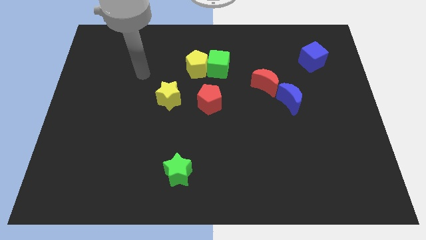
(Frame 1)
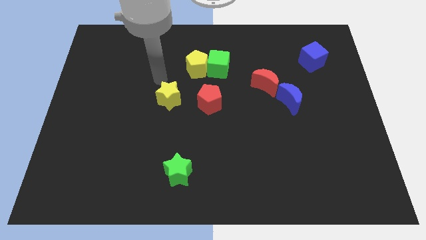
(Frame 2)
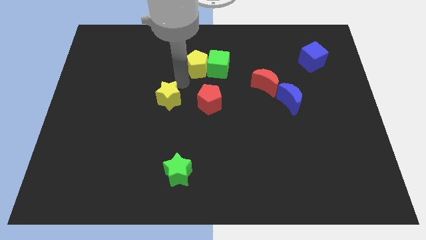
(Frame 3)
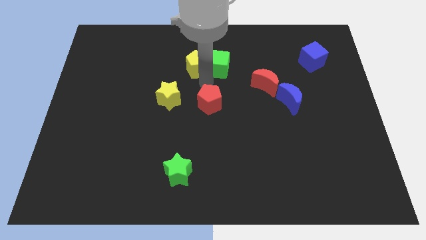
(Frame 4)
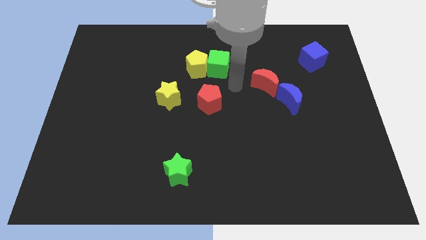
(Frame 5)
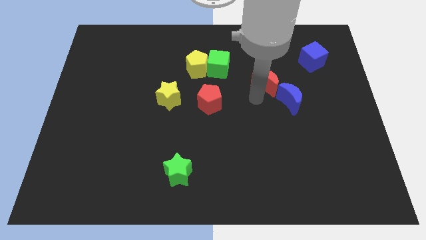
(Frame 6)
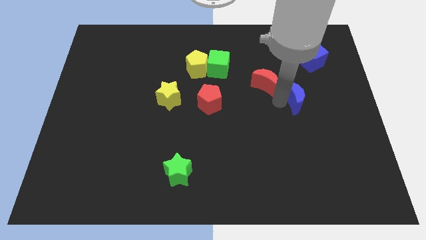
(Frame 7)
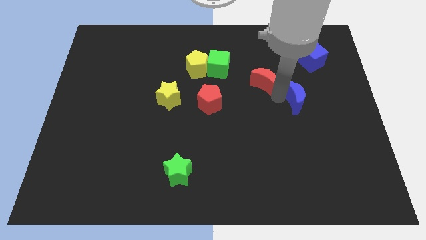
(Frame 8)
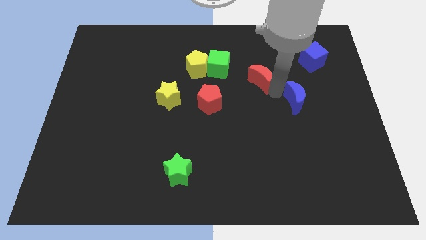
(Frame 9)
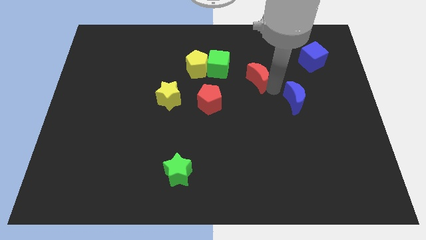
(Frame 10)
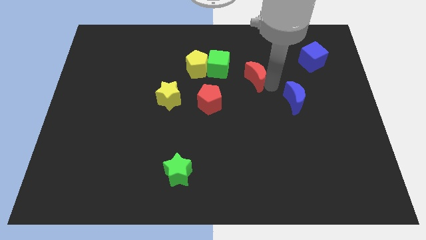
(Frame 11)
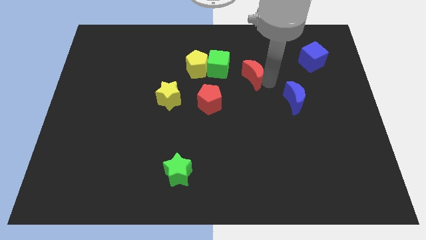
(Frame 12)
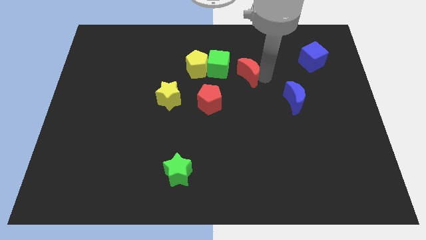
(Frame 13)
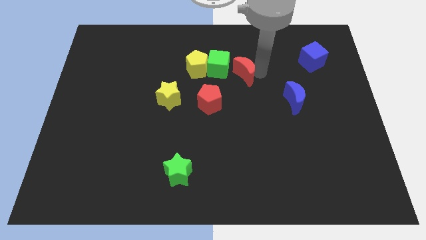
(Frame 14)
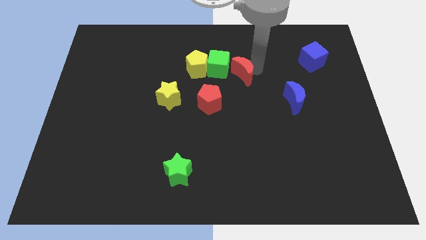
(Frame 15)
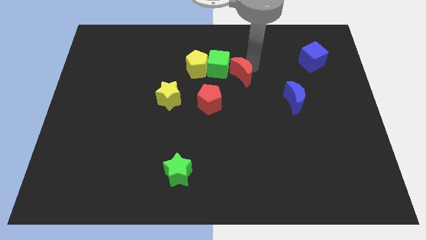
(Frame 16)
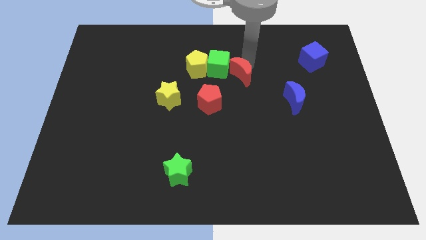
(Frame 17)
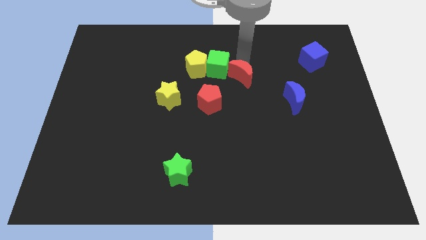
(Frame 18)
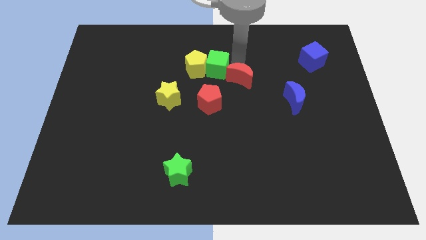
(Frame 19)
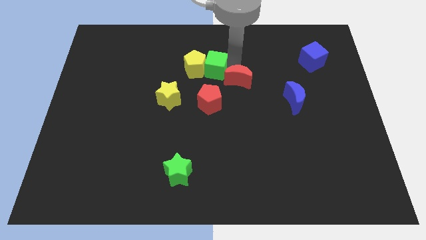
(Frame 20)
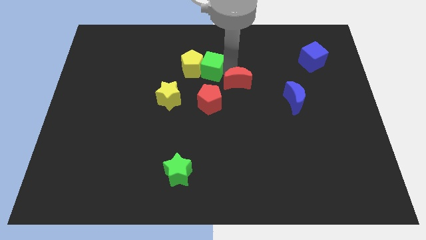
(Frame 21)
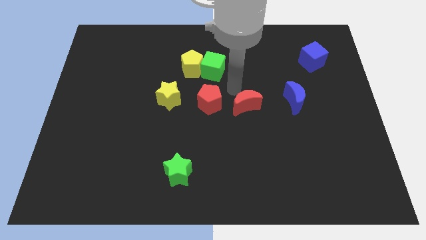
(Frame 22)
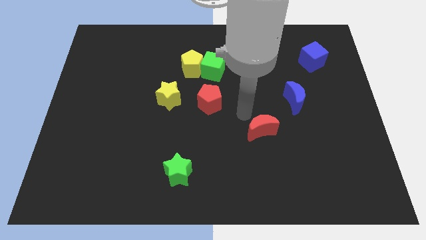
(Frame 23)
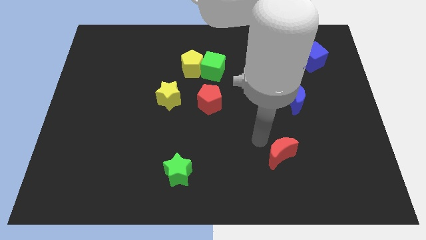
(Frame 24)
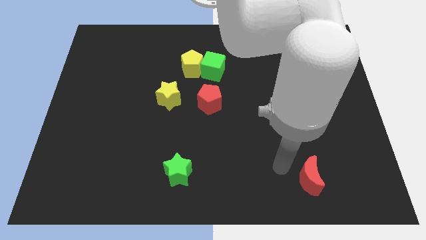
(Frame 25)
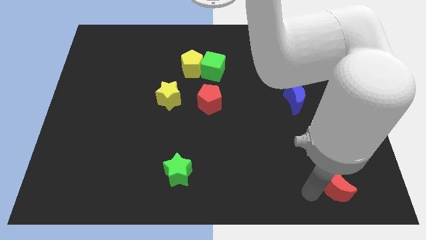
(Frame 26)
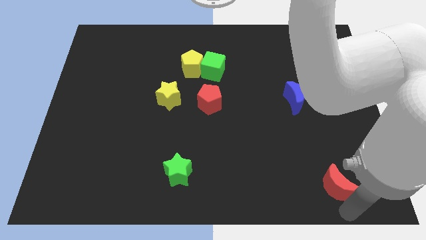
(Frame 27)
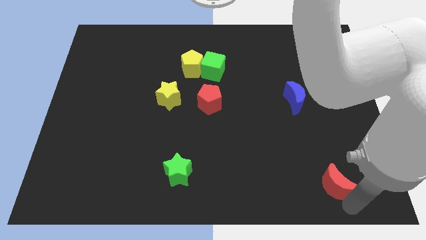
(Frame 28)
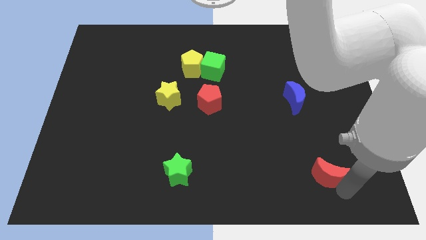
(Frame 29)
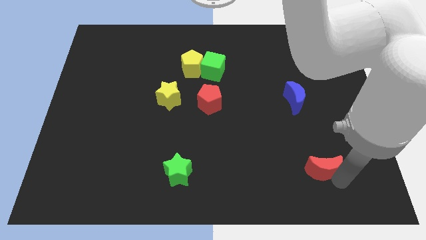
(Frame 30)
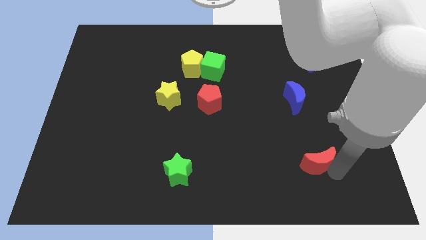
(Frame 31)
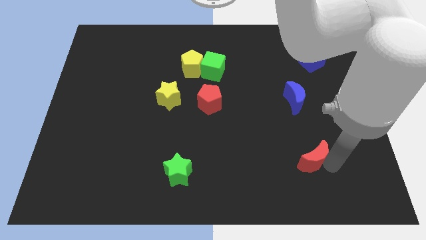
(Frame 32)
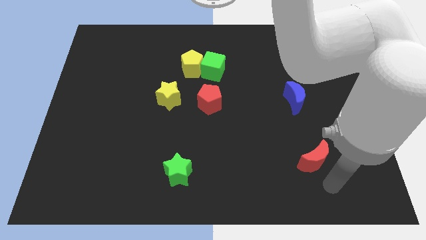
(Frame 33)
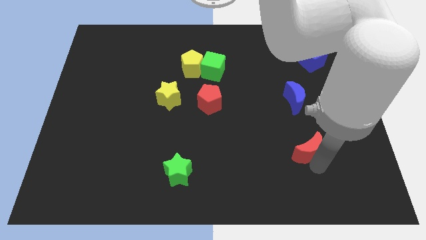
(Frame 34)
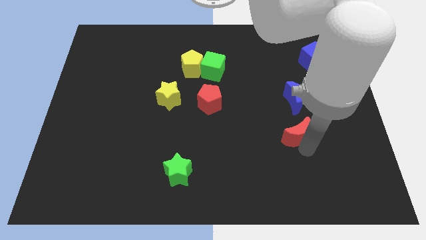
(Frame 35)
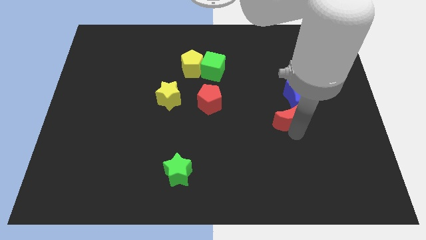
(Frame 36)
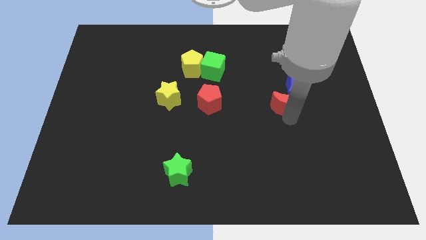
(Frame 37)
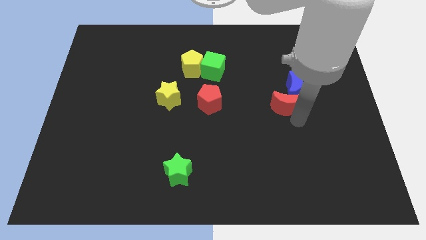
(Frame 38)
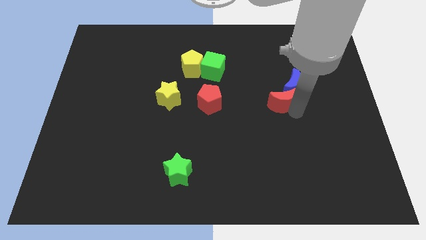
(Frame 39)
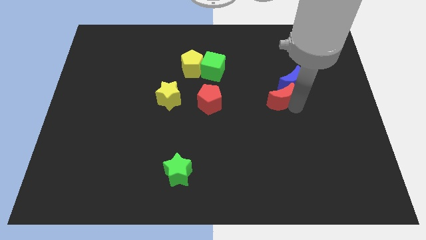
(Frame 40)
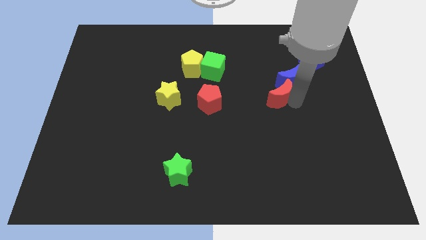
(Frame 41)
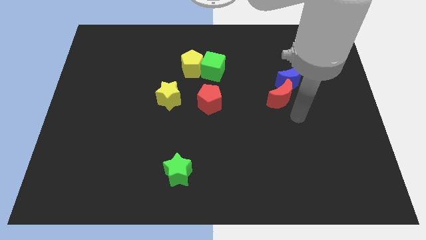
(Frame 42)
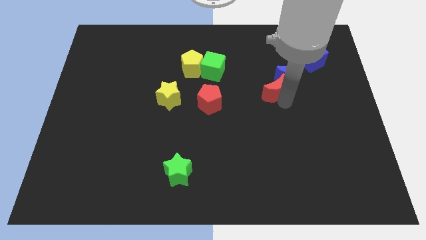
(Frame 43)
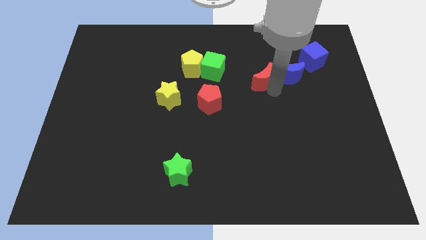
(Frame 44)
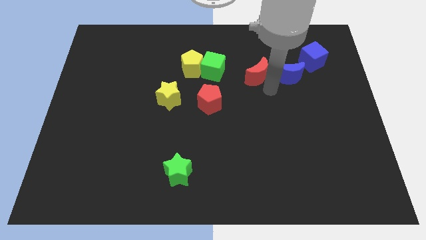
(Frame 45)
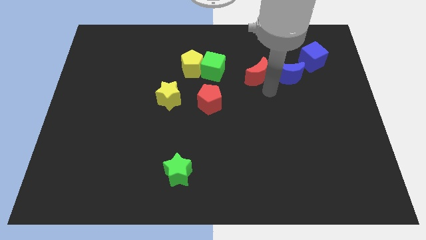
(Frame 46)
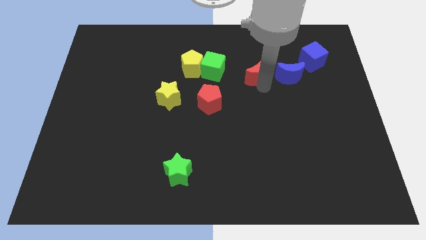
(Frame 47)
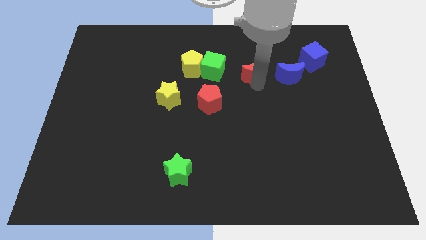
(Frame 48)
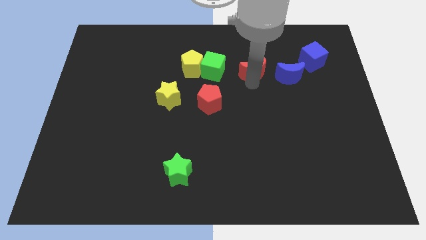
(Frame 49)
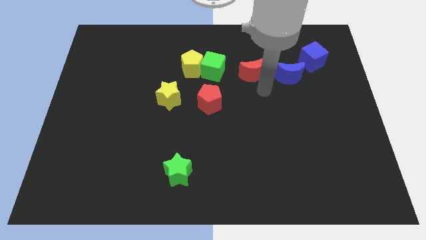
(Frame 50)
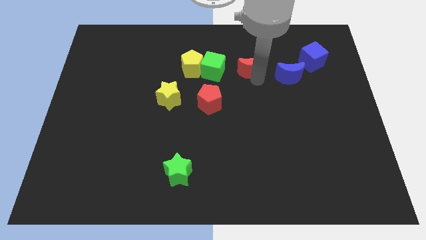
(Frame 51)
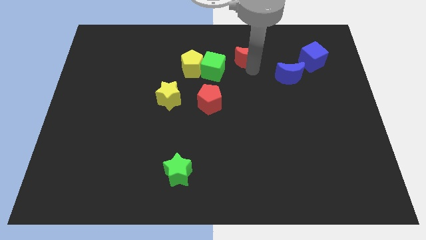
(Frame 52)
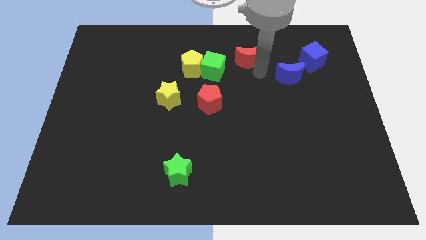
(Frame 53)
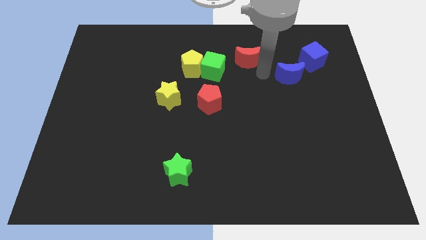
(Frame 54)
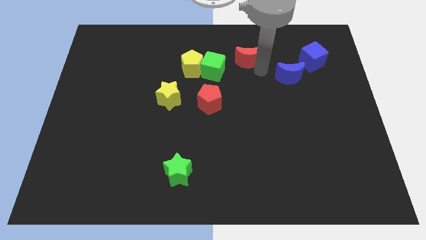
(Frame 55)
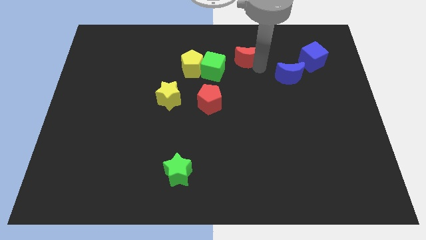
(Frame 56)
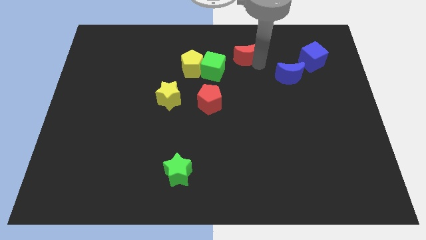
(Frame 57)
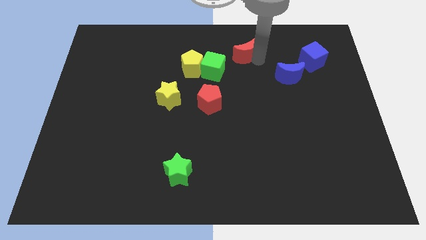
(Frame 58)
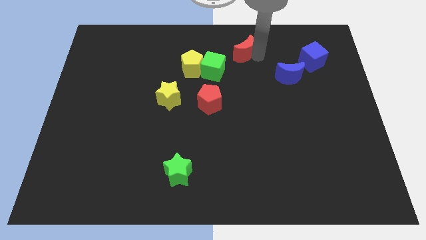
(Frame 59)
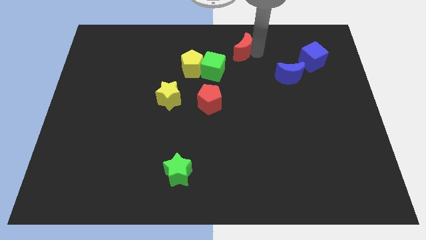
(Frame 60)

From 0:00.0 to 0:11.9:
put the red moon to the top side

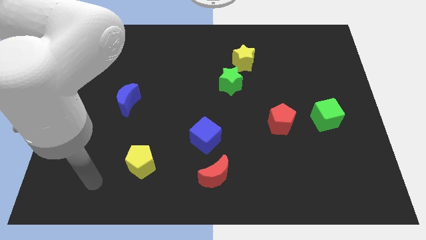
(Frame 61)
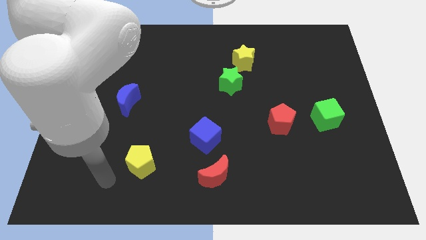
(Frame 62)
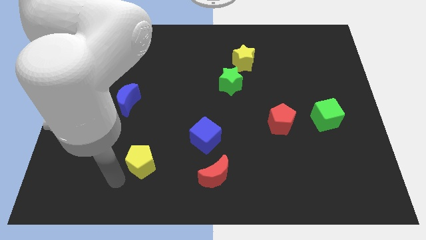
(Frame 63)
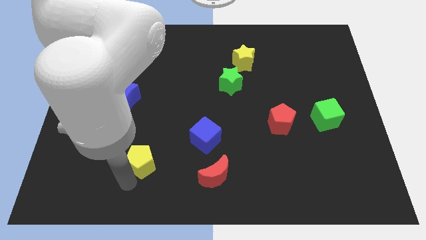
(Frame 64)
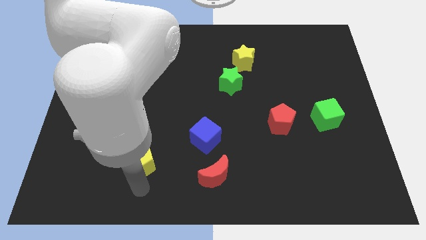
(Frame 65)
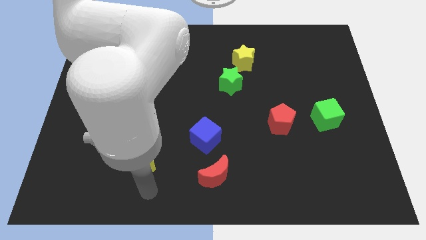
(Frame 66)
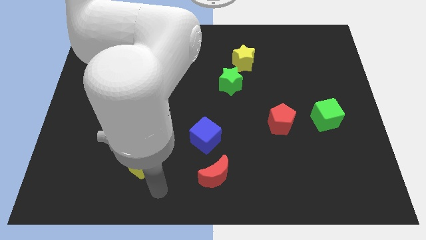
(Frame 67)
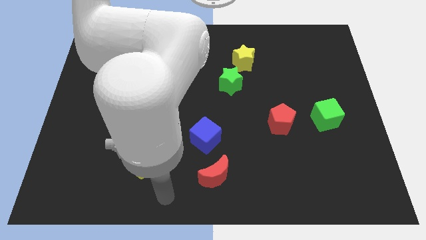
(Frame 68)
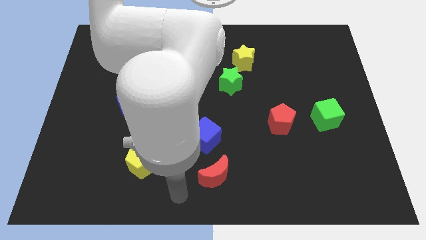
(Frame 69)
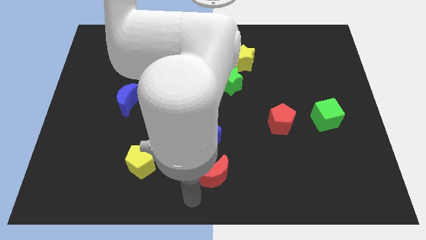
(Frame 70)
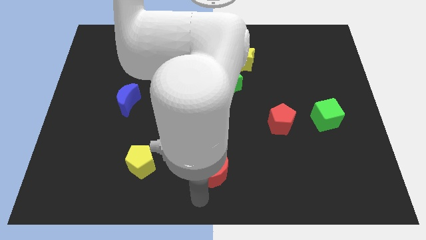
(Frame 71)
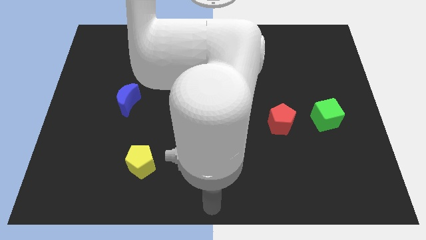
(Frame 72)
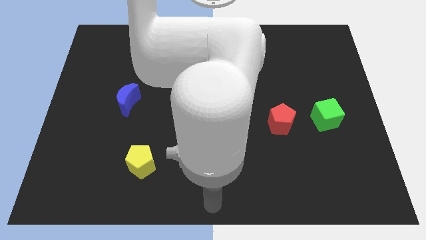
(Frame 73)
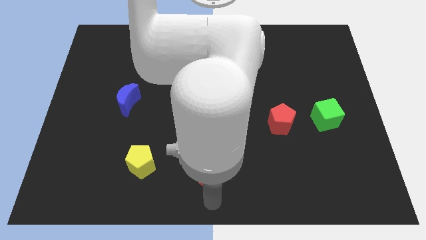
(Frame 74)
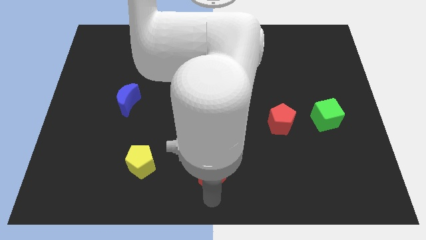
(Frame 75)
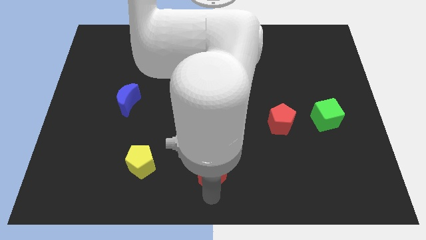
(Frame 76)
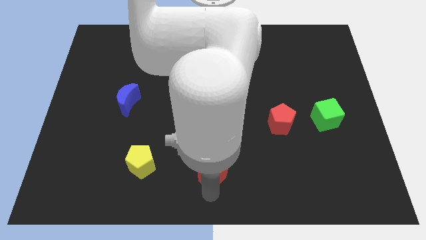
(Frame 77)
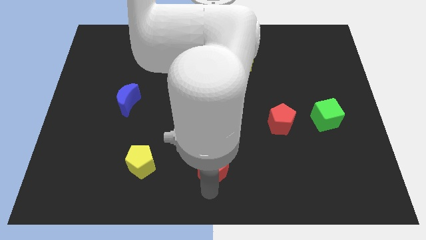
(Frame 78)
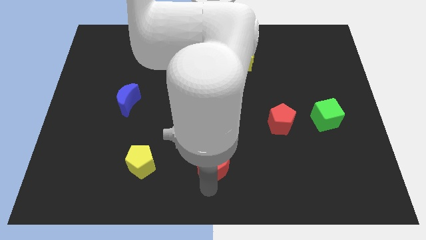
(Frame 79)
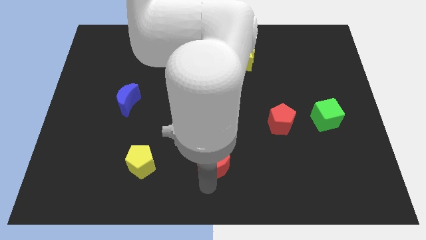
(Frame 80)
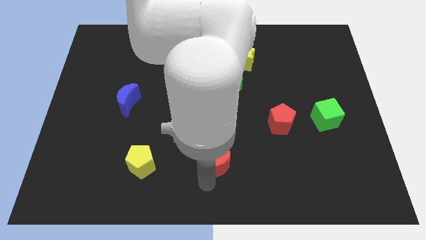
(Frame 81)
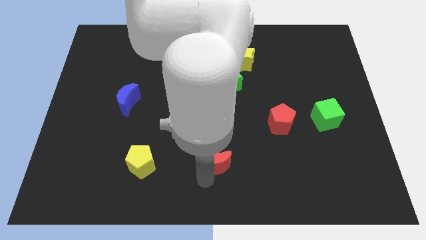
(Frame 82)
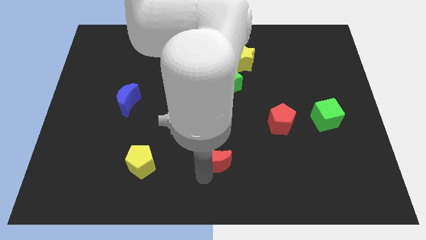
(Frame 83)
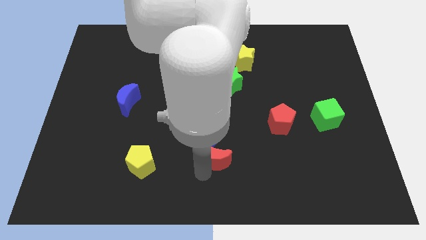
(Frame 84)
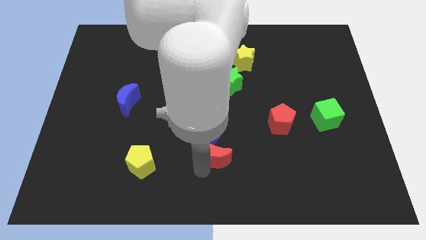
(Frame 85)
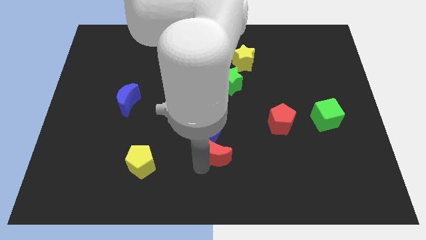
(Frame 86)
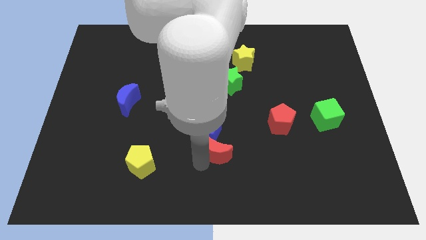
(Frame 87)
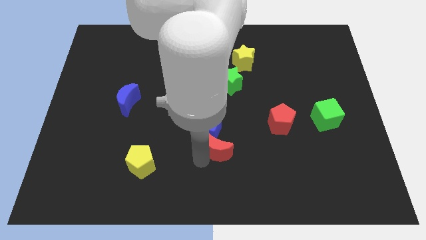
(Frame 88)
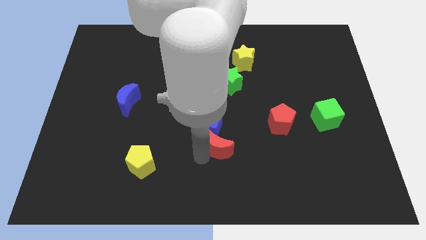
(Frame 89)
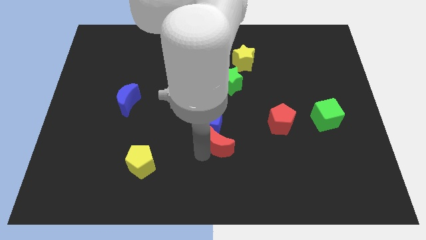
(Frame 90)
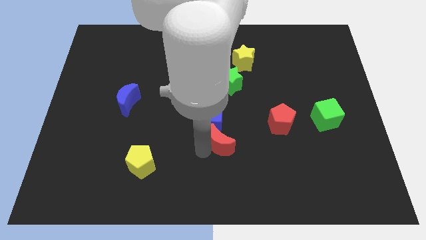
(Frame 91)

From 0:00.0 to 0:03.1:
put the red moon to the center of the board
